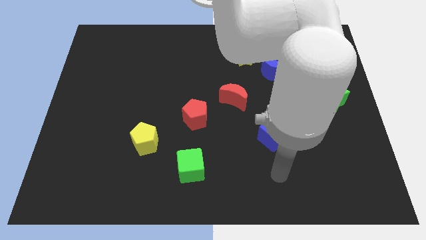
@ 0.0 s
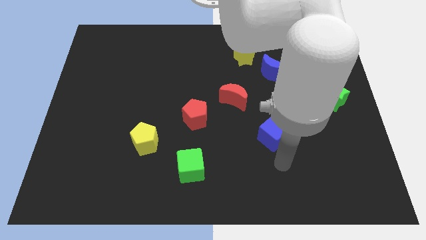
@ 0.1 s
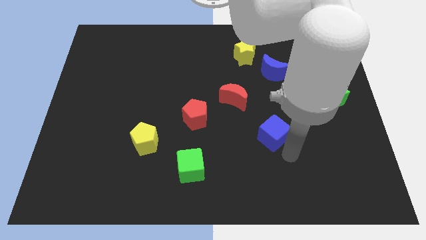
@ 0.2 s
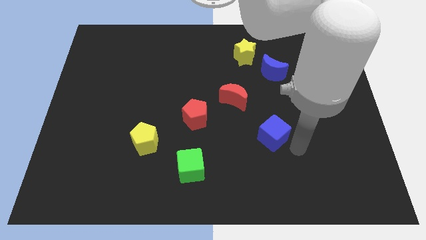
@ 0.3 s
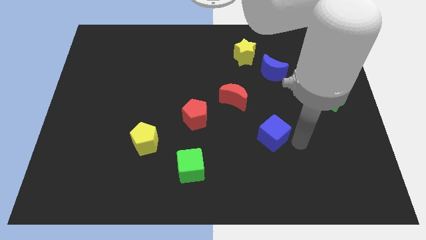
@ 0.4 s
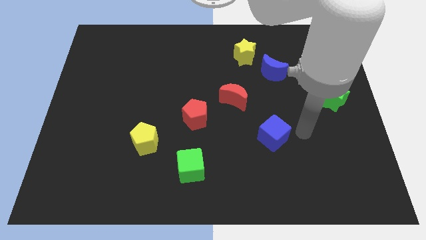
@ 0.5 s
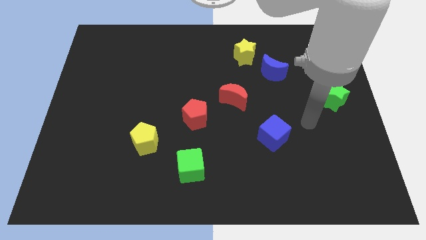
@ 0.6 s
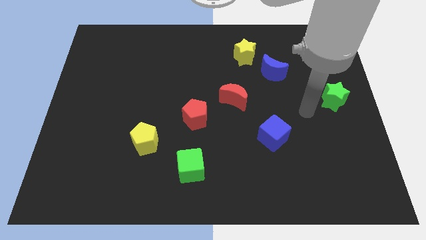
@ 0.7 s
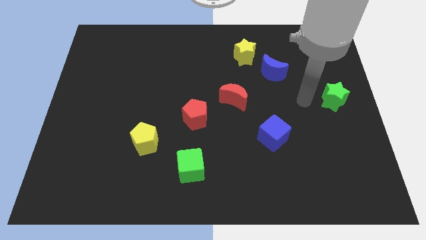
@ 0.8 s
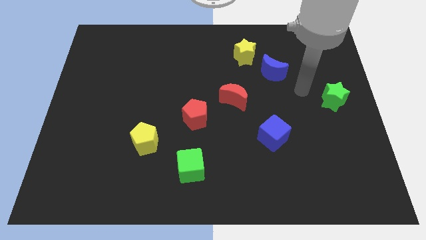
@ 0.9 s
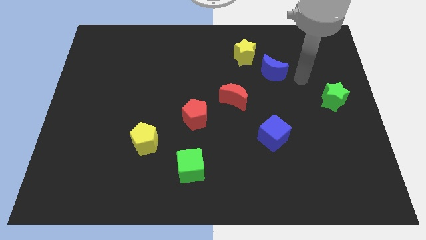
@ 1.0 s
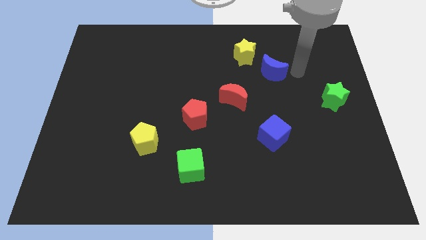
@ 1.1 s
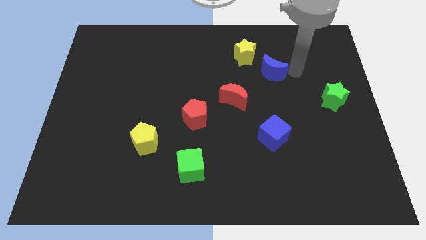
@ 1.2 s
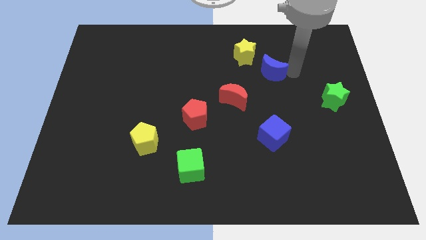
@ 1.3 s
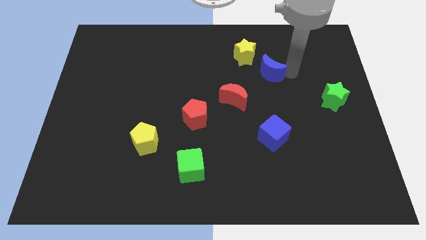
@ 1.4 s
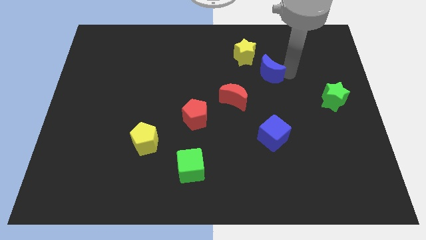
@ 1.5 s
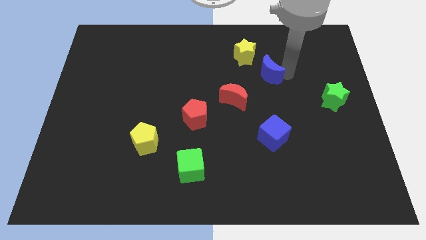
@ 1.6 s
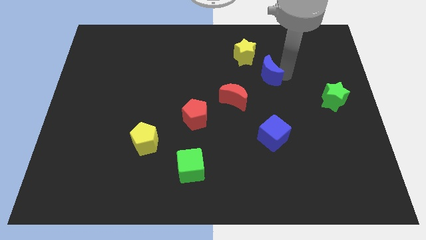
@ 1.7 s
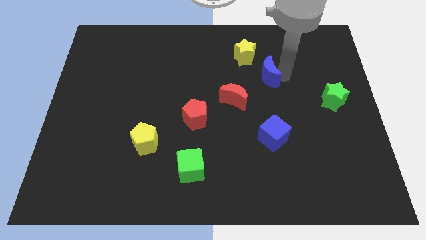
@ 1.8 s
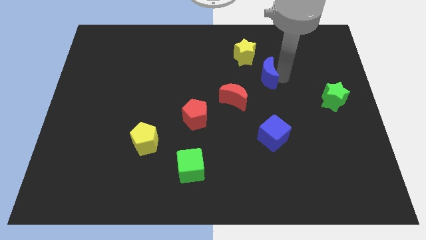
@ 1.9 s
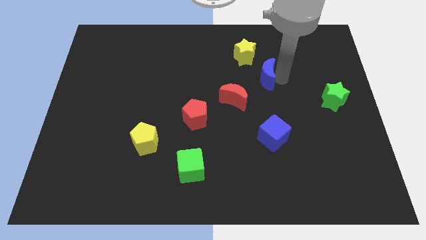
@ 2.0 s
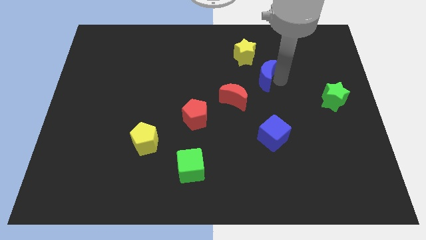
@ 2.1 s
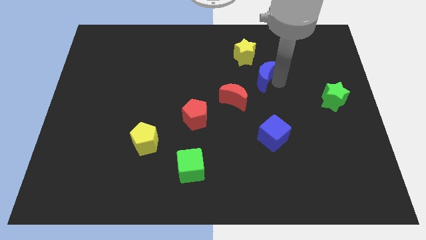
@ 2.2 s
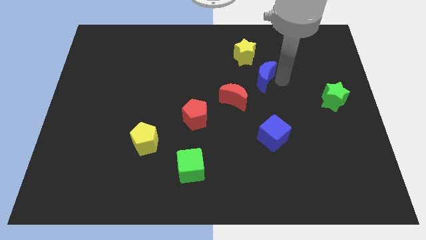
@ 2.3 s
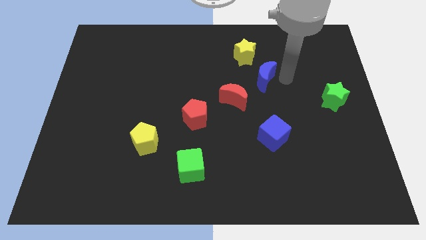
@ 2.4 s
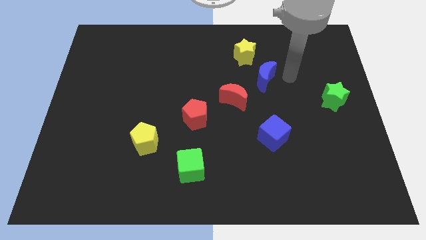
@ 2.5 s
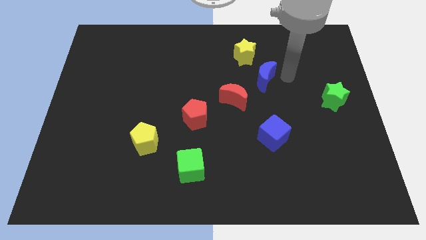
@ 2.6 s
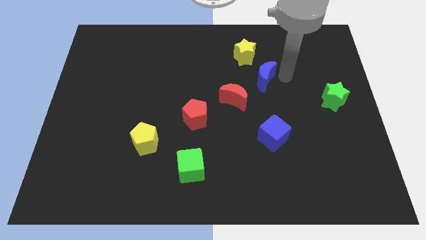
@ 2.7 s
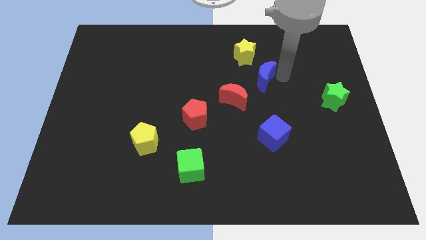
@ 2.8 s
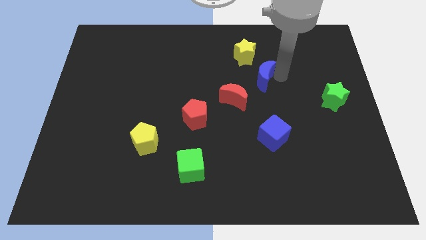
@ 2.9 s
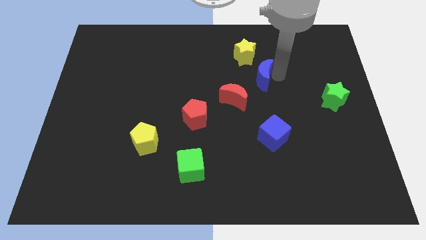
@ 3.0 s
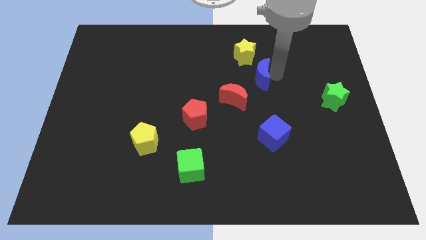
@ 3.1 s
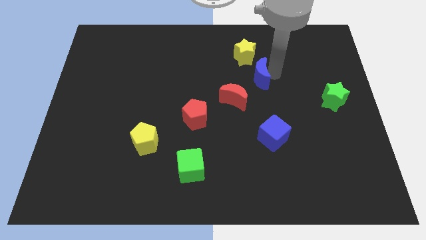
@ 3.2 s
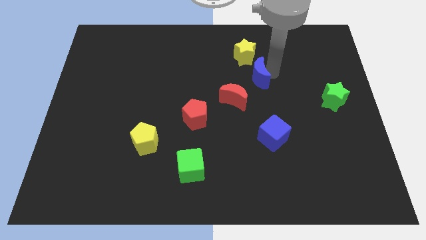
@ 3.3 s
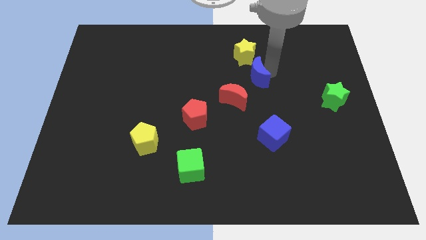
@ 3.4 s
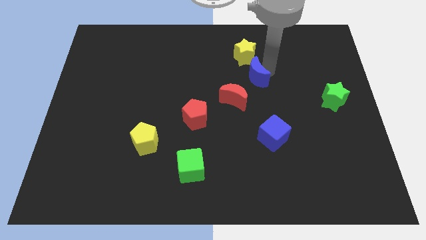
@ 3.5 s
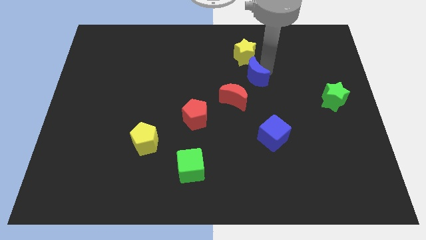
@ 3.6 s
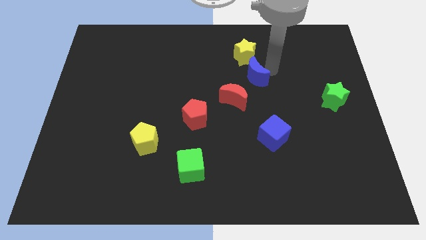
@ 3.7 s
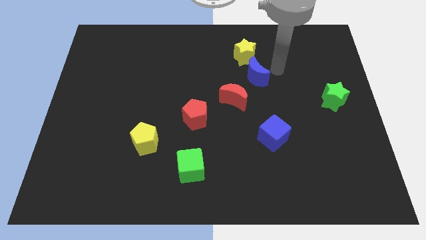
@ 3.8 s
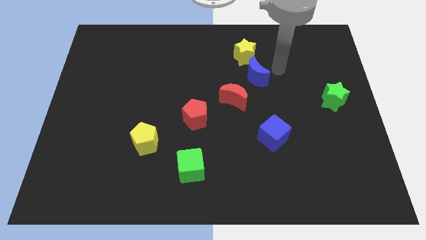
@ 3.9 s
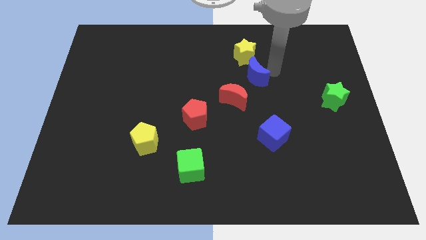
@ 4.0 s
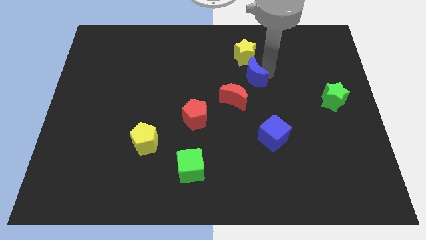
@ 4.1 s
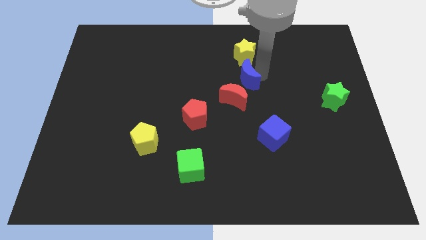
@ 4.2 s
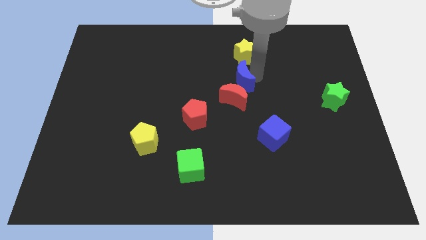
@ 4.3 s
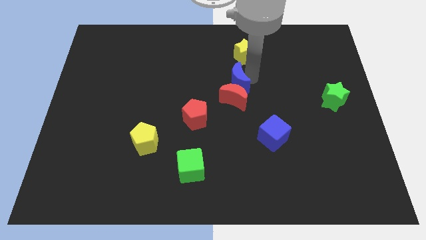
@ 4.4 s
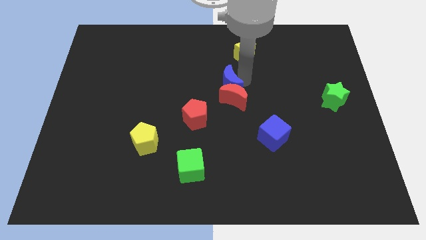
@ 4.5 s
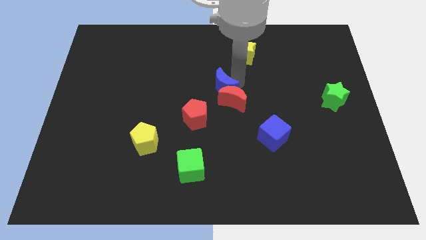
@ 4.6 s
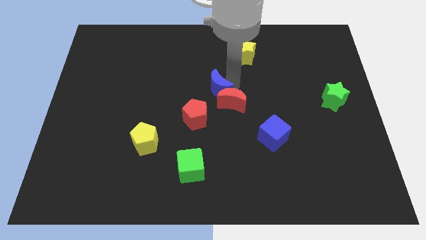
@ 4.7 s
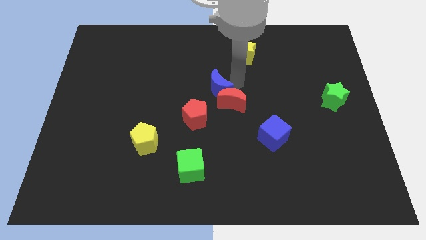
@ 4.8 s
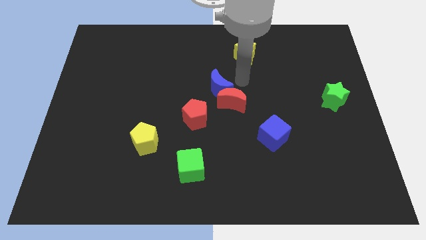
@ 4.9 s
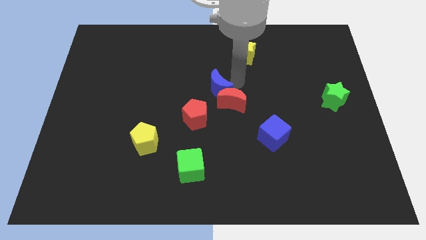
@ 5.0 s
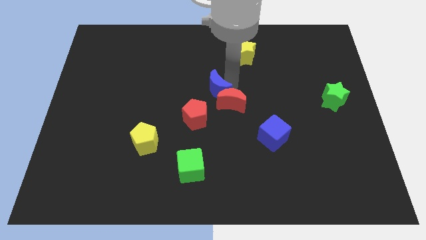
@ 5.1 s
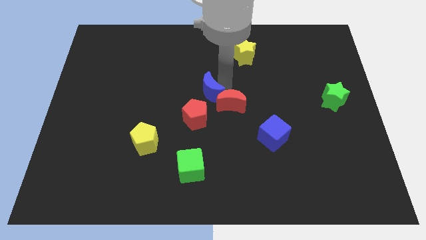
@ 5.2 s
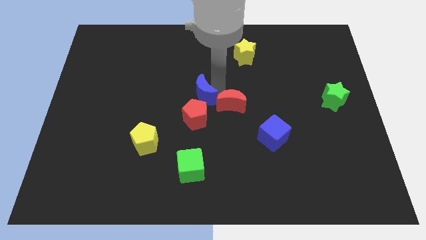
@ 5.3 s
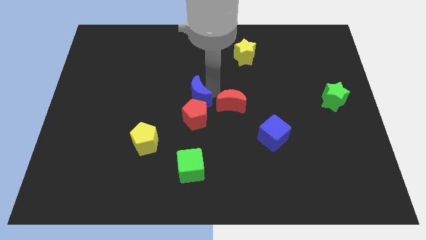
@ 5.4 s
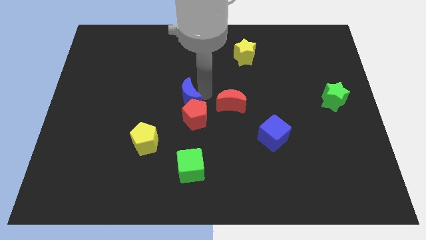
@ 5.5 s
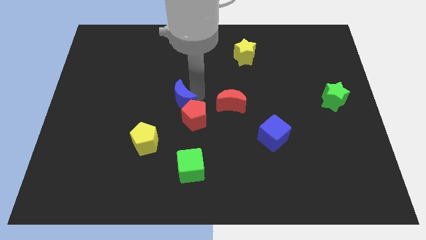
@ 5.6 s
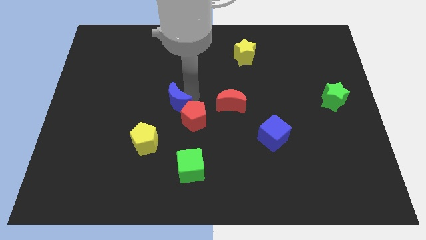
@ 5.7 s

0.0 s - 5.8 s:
slide the blue moon to the left of the red pentagon

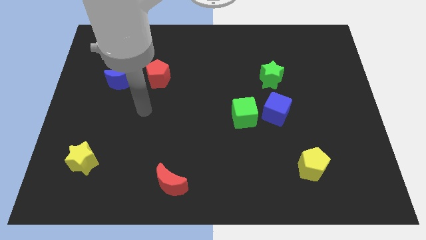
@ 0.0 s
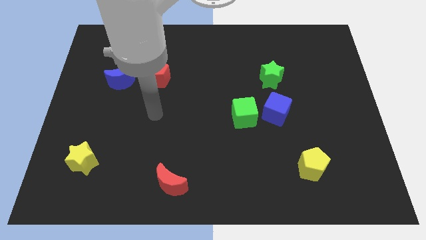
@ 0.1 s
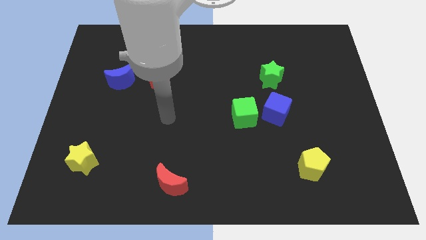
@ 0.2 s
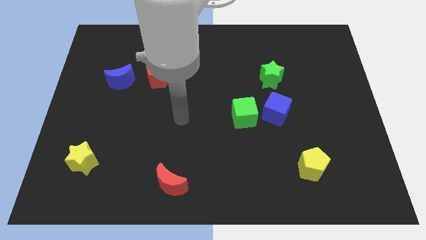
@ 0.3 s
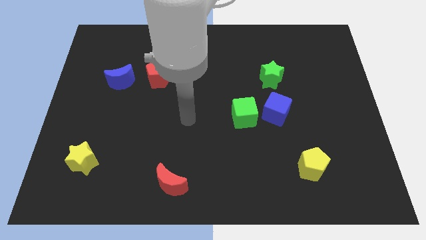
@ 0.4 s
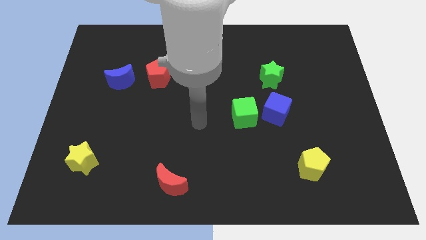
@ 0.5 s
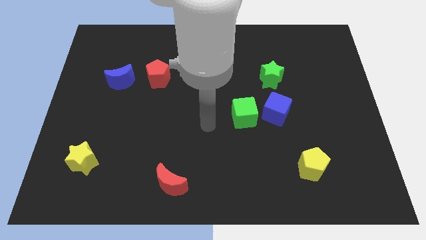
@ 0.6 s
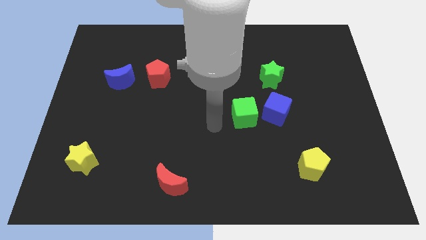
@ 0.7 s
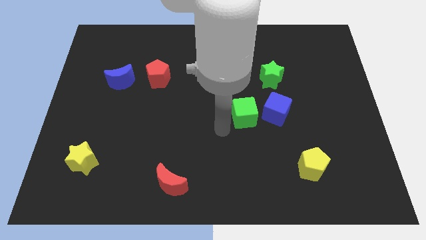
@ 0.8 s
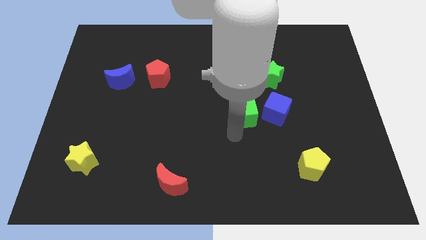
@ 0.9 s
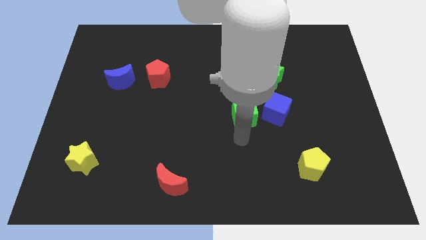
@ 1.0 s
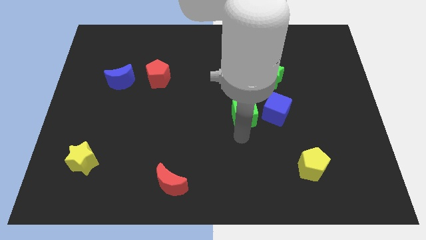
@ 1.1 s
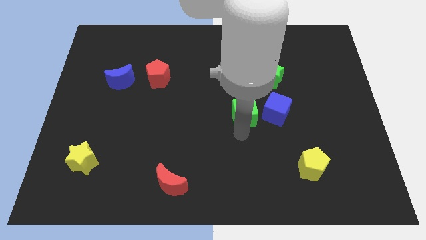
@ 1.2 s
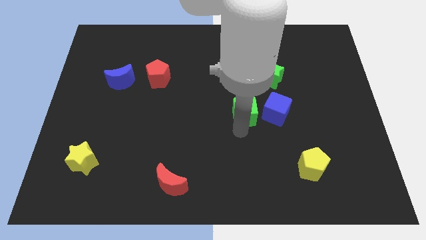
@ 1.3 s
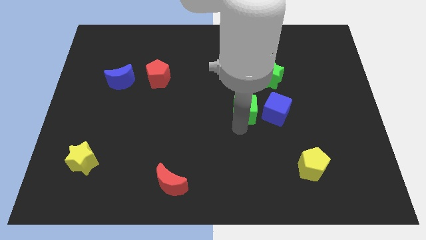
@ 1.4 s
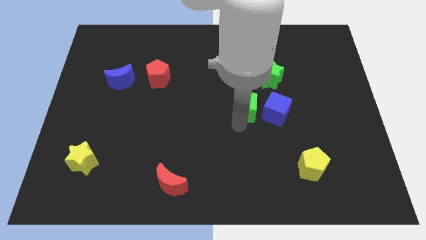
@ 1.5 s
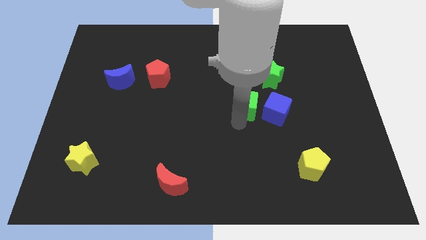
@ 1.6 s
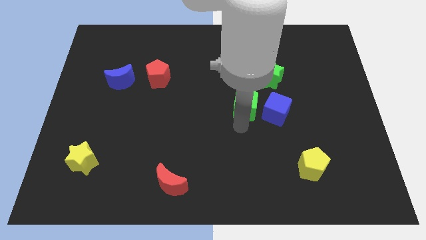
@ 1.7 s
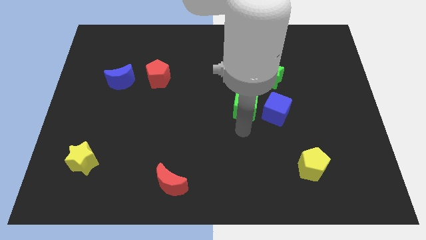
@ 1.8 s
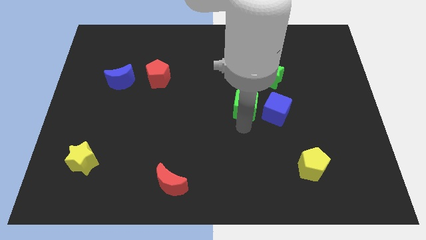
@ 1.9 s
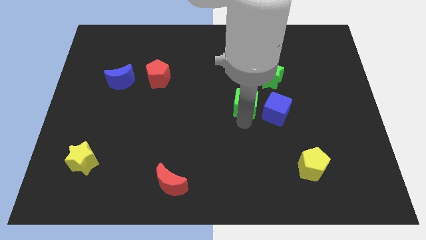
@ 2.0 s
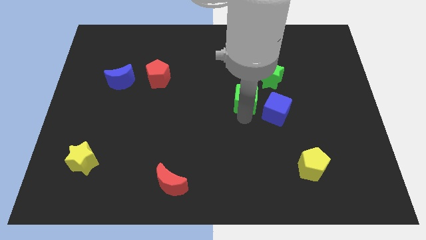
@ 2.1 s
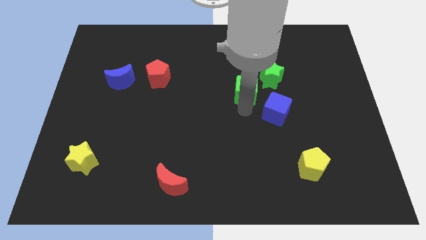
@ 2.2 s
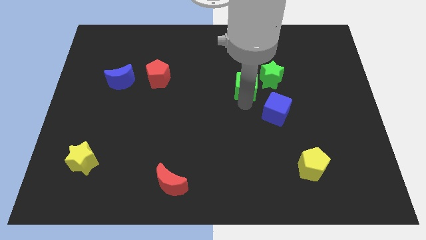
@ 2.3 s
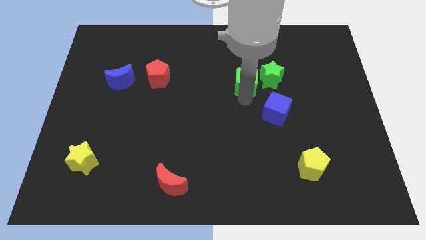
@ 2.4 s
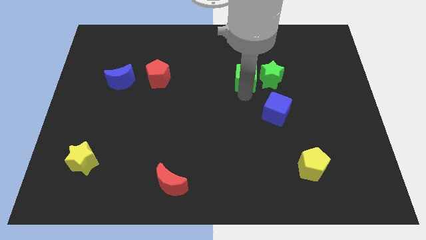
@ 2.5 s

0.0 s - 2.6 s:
move the green cube to the top left of the green star
